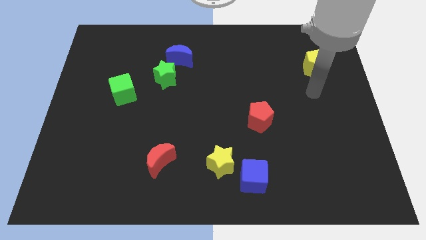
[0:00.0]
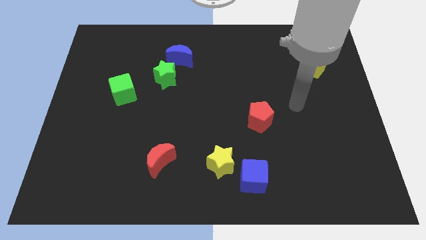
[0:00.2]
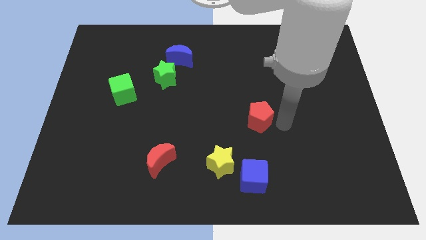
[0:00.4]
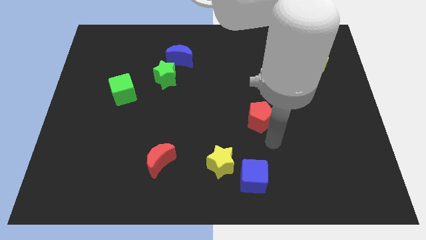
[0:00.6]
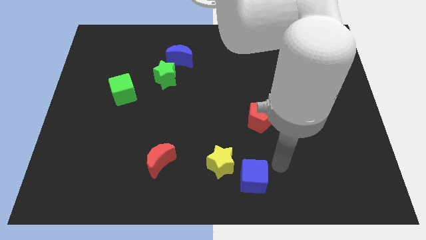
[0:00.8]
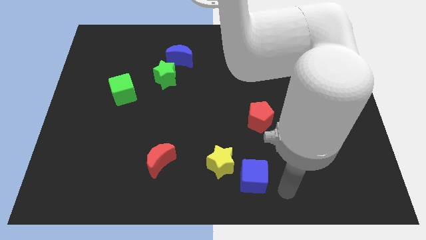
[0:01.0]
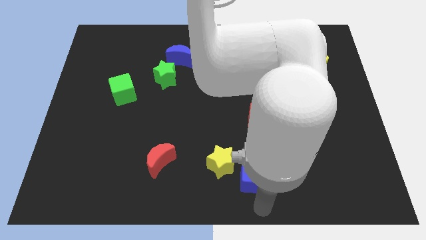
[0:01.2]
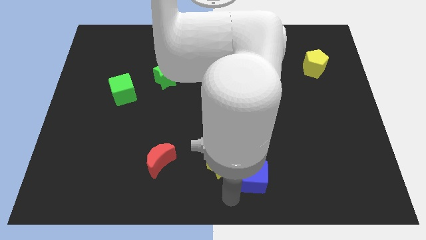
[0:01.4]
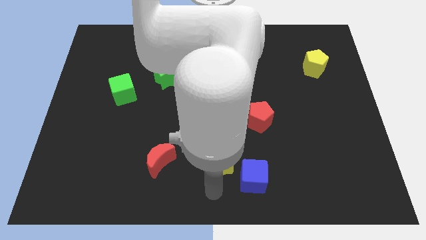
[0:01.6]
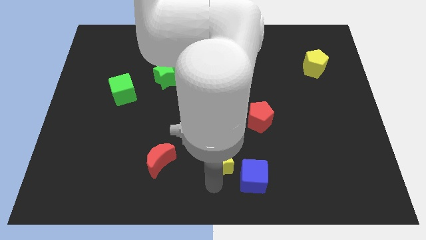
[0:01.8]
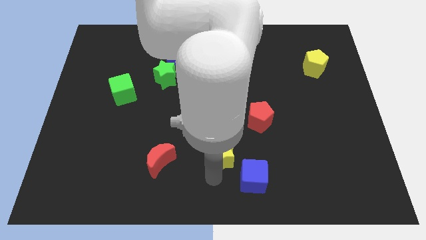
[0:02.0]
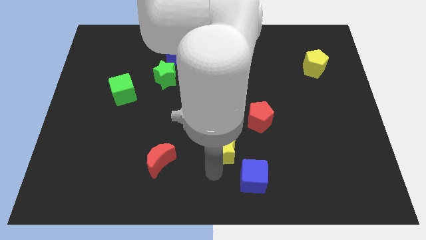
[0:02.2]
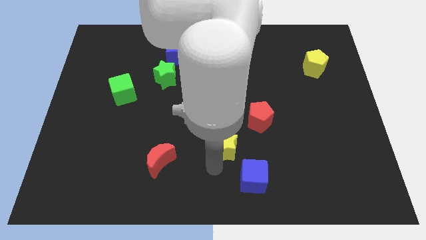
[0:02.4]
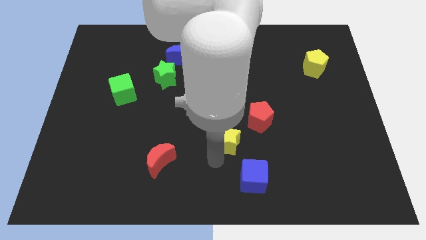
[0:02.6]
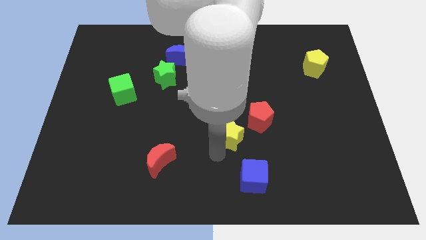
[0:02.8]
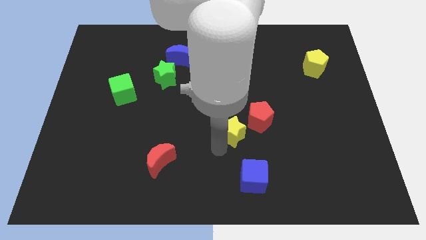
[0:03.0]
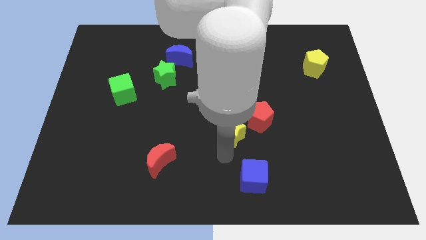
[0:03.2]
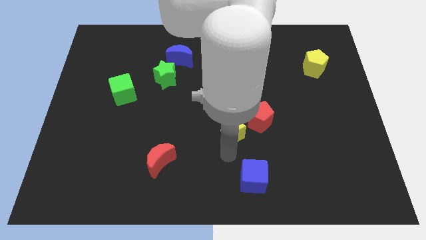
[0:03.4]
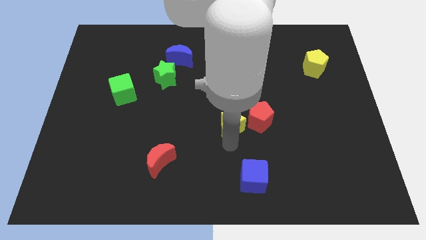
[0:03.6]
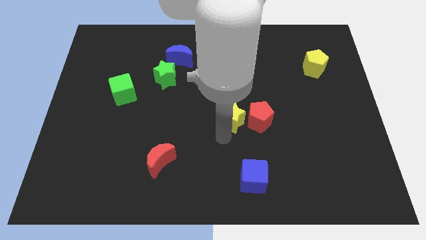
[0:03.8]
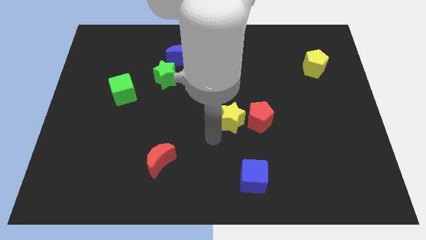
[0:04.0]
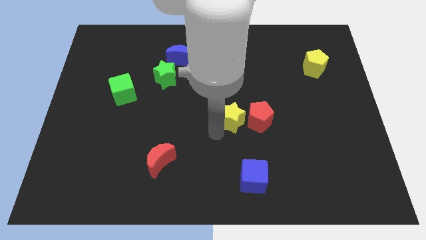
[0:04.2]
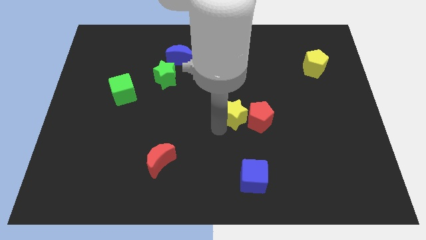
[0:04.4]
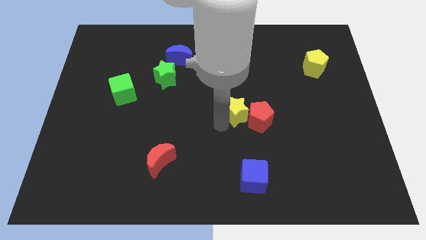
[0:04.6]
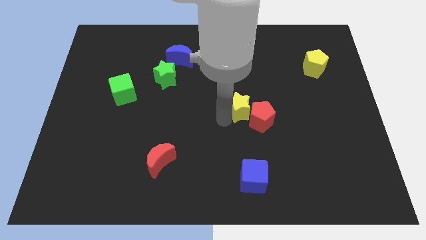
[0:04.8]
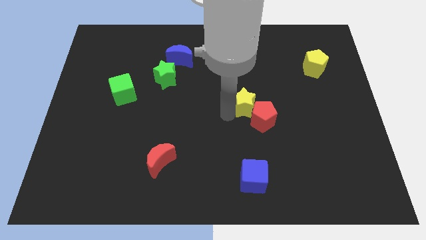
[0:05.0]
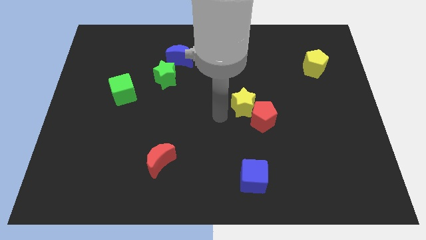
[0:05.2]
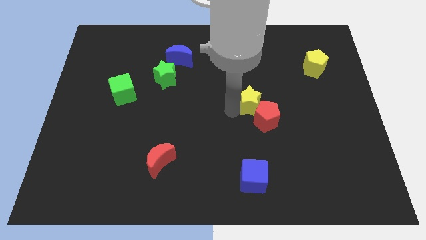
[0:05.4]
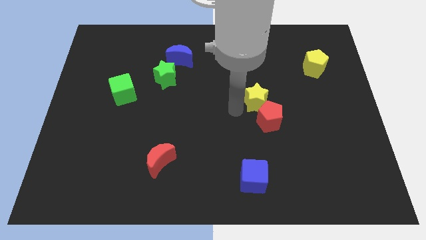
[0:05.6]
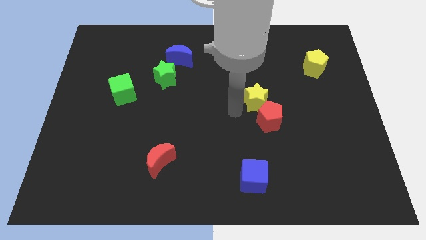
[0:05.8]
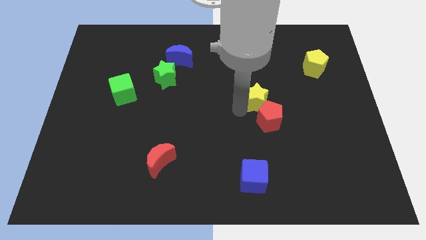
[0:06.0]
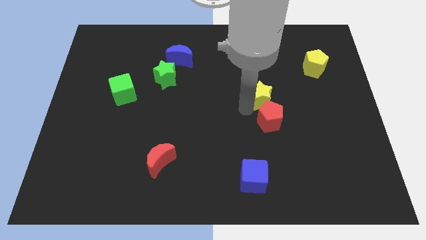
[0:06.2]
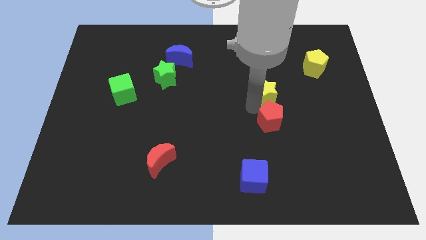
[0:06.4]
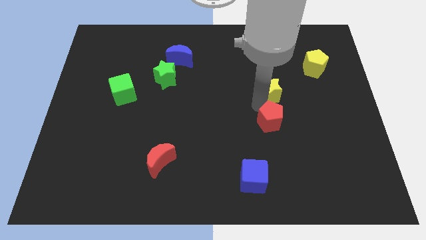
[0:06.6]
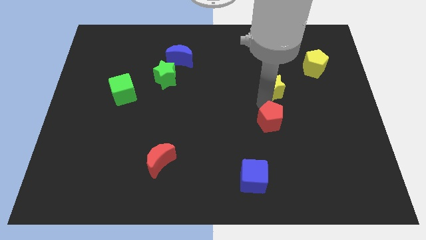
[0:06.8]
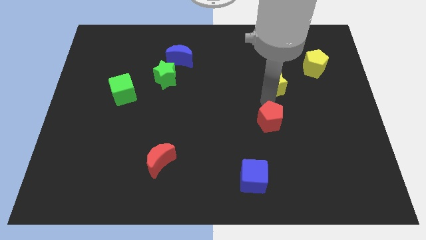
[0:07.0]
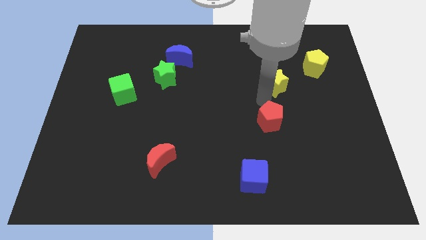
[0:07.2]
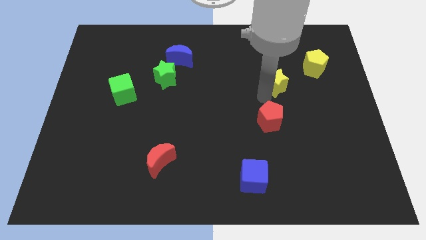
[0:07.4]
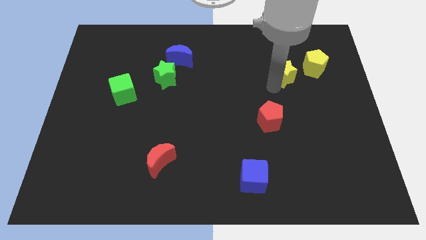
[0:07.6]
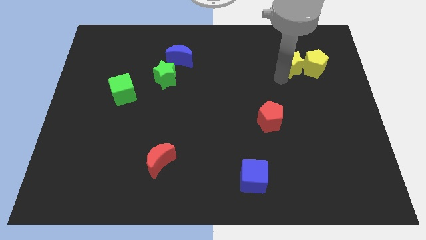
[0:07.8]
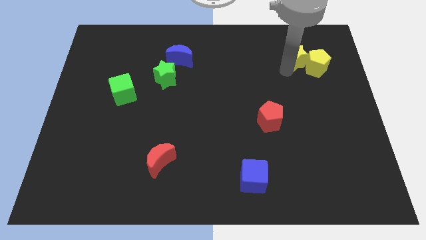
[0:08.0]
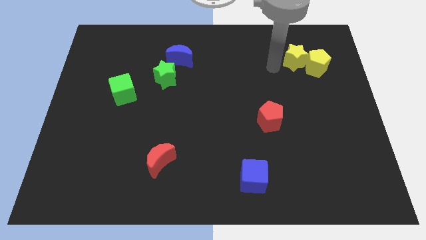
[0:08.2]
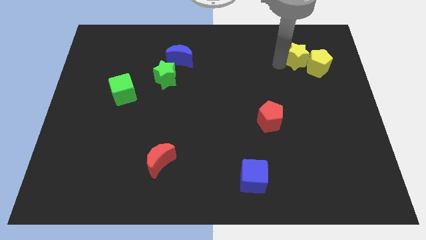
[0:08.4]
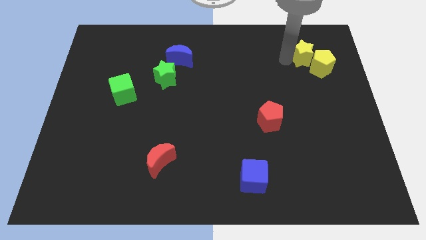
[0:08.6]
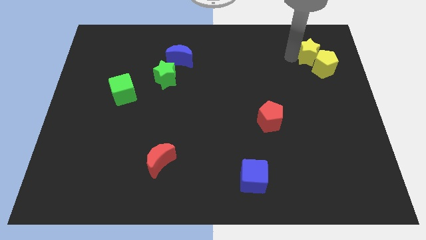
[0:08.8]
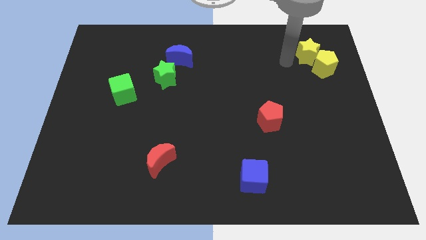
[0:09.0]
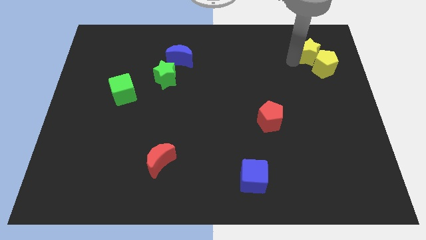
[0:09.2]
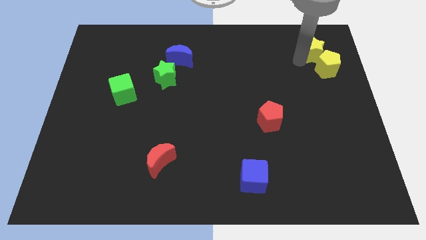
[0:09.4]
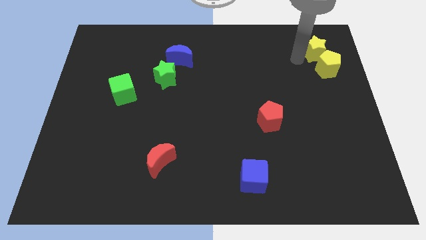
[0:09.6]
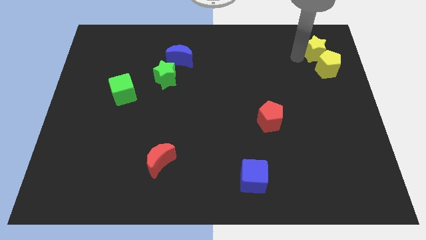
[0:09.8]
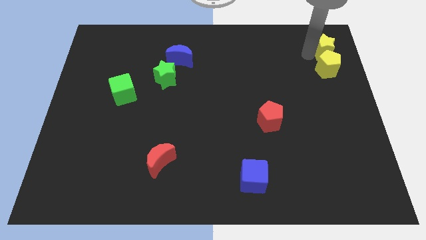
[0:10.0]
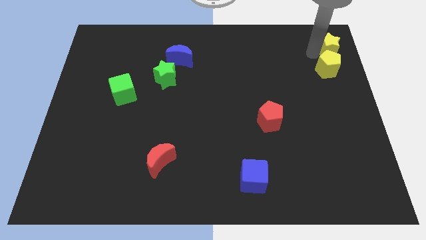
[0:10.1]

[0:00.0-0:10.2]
put the yellow star to the top right

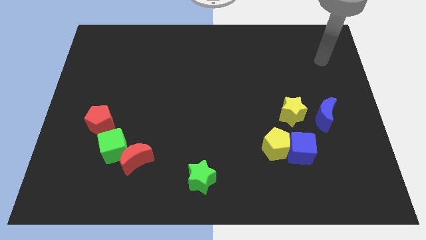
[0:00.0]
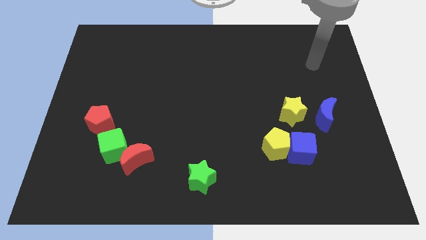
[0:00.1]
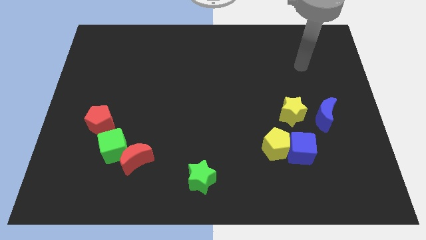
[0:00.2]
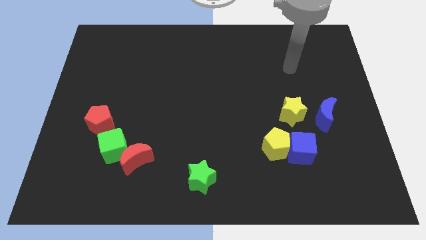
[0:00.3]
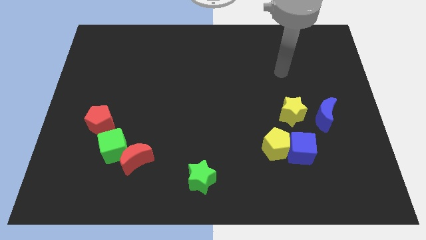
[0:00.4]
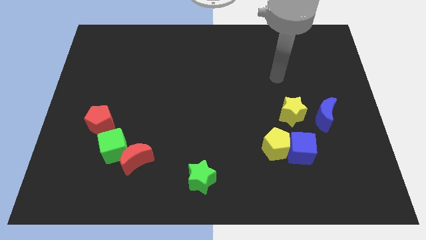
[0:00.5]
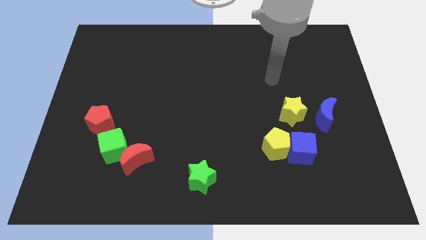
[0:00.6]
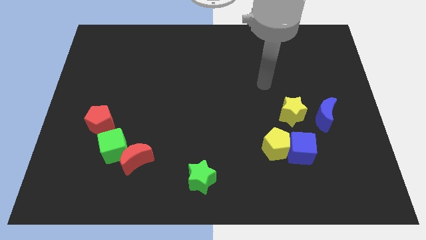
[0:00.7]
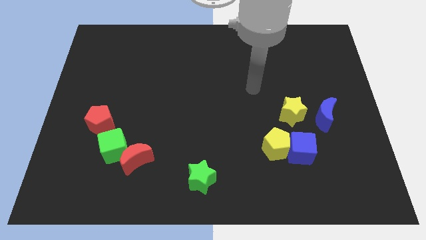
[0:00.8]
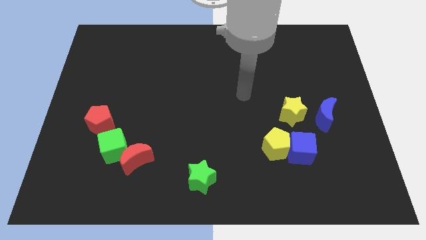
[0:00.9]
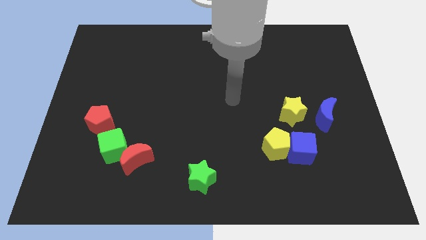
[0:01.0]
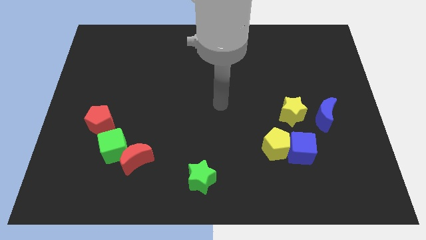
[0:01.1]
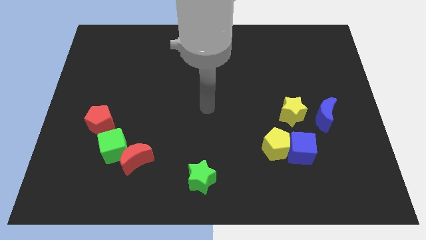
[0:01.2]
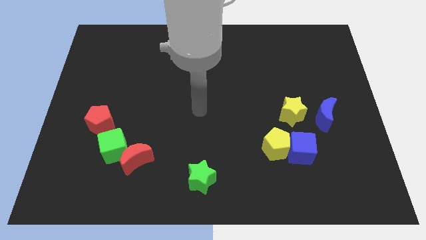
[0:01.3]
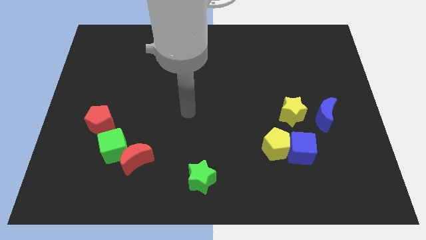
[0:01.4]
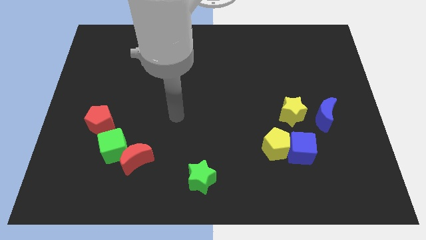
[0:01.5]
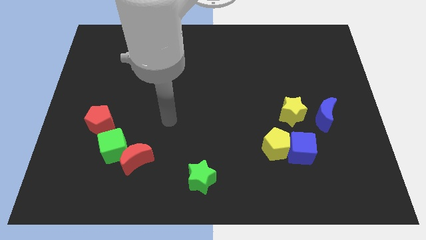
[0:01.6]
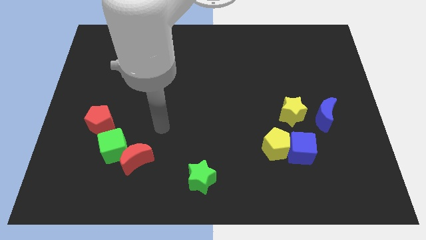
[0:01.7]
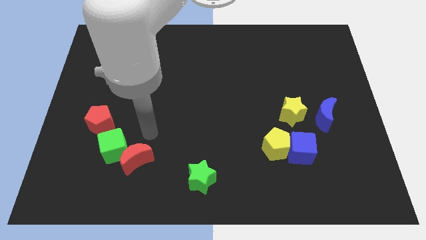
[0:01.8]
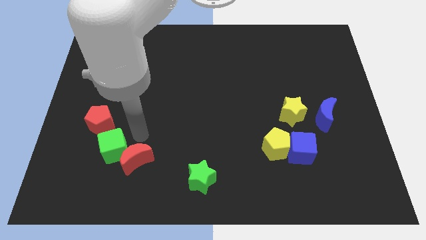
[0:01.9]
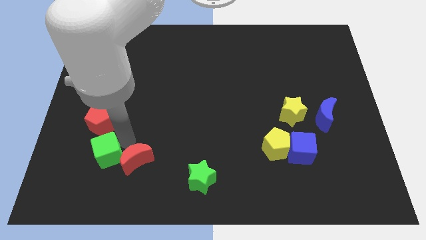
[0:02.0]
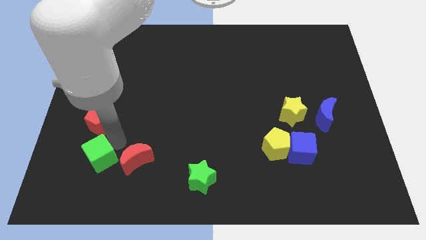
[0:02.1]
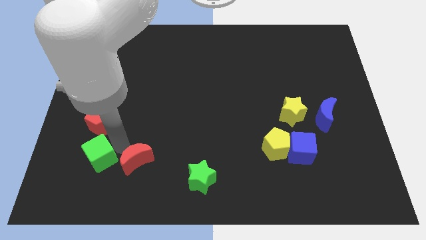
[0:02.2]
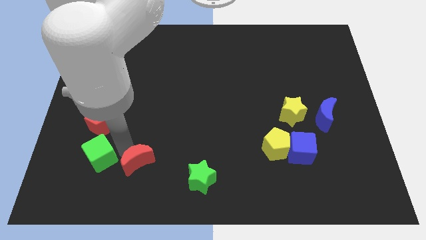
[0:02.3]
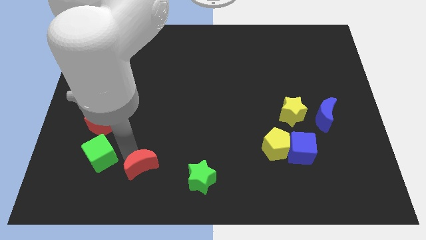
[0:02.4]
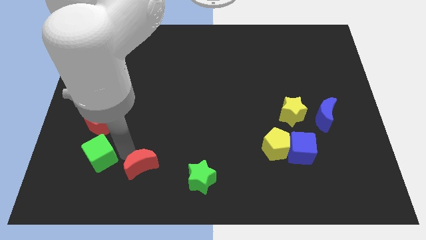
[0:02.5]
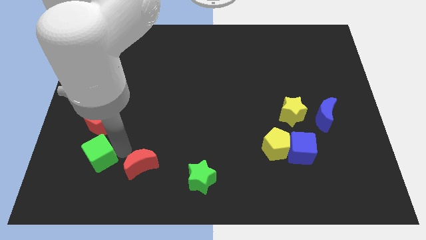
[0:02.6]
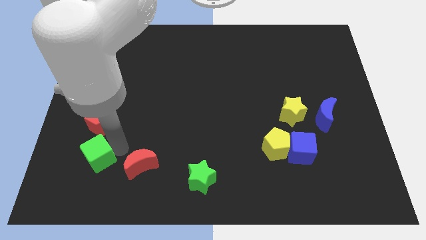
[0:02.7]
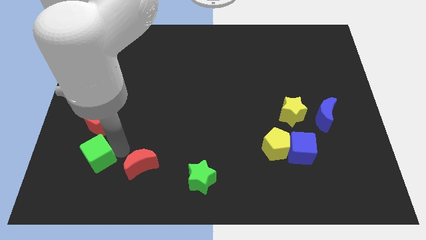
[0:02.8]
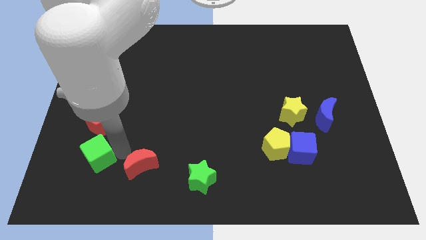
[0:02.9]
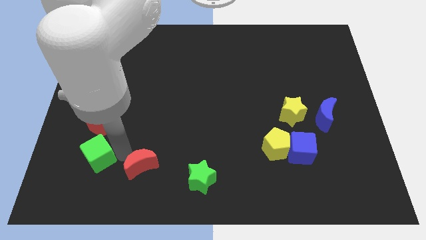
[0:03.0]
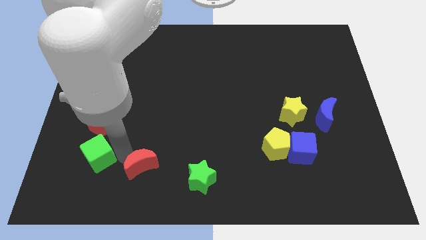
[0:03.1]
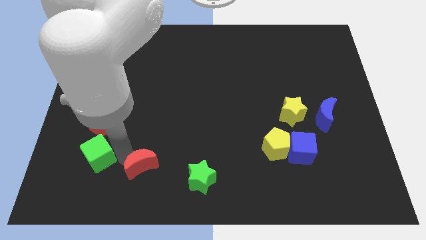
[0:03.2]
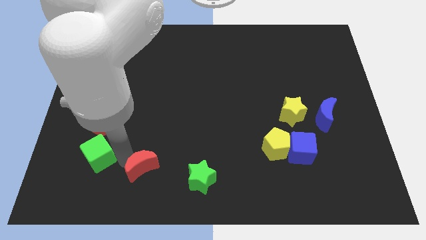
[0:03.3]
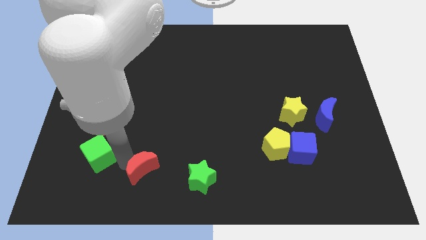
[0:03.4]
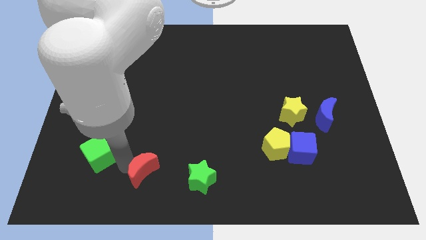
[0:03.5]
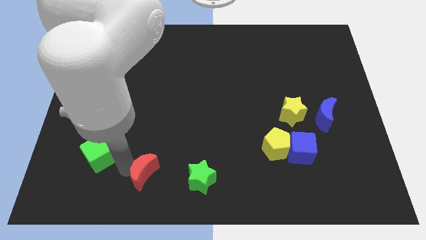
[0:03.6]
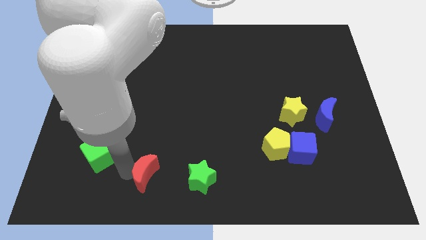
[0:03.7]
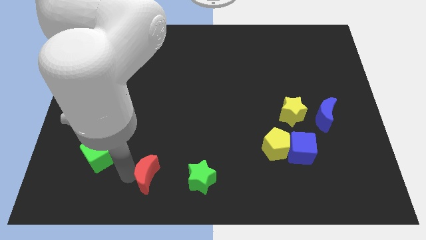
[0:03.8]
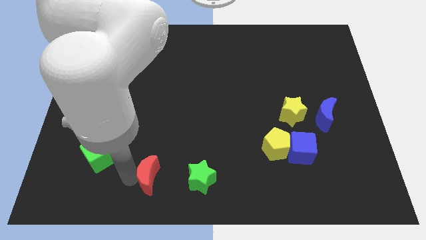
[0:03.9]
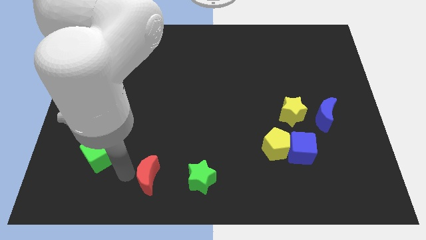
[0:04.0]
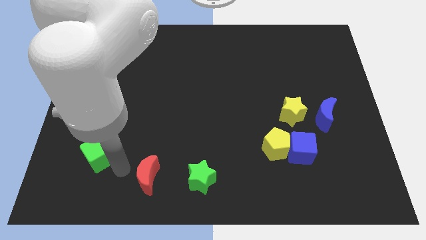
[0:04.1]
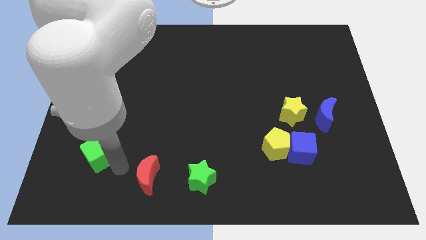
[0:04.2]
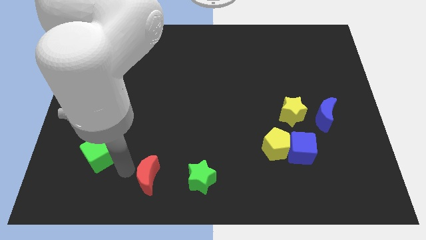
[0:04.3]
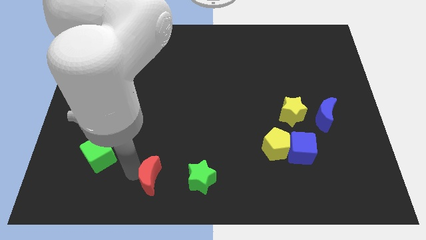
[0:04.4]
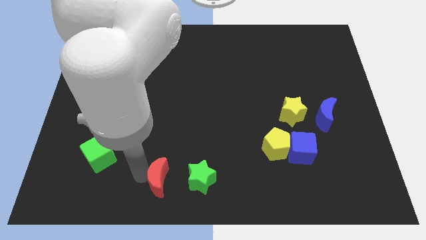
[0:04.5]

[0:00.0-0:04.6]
push the red moon to the bottom side
